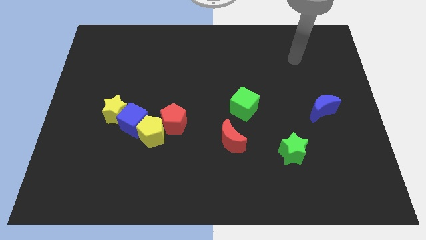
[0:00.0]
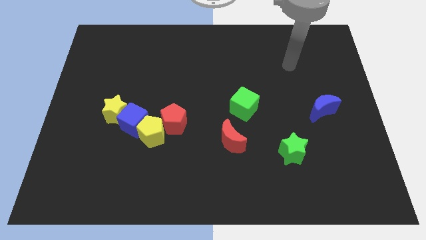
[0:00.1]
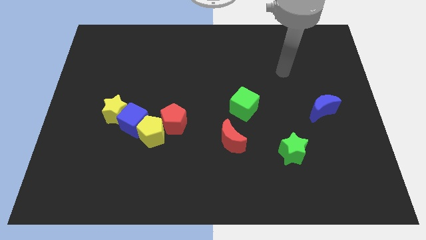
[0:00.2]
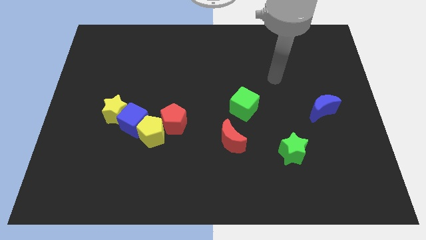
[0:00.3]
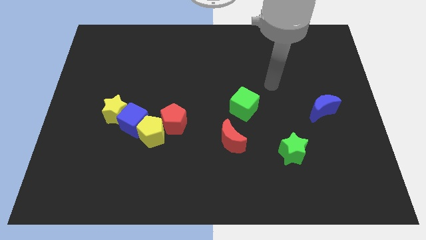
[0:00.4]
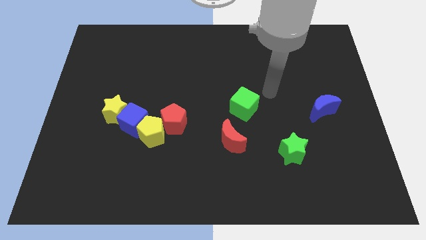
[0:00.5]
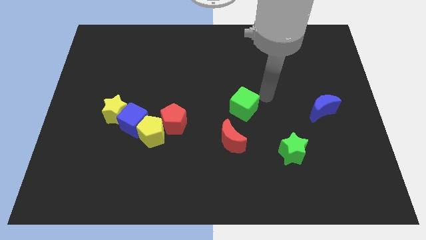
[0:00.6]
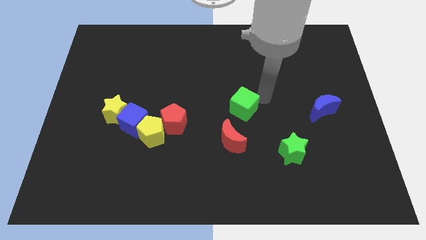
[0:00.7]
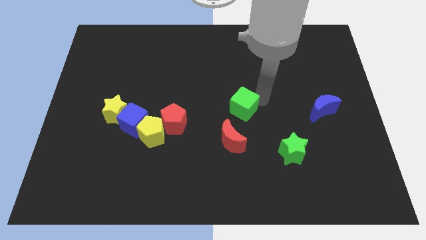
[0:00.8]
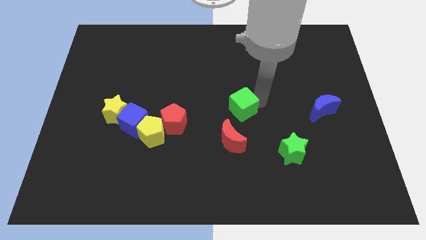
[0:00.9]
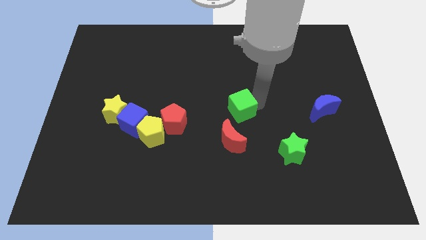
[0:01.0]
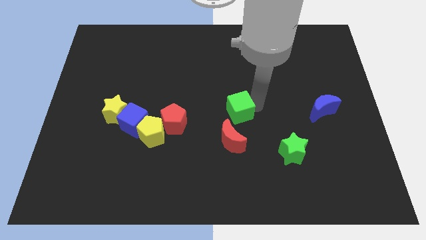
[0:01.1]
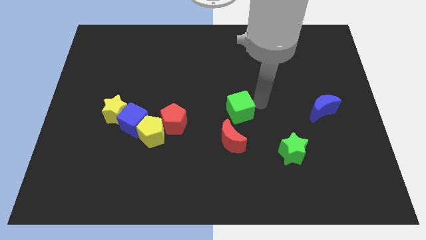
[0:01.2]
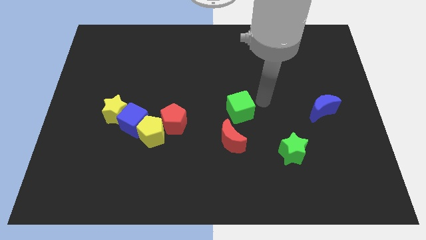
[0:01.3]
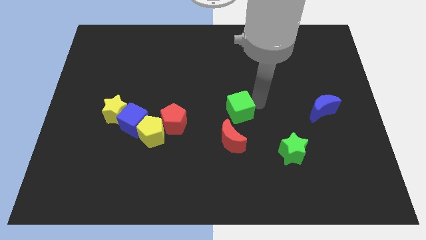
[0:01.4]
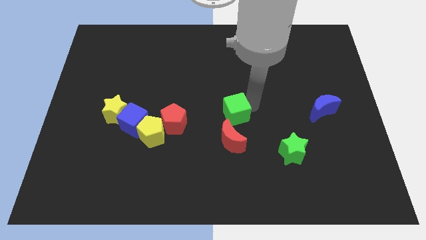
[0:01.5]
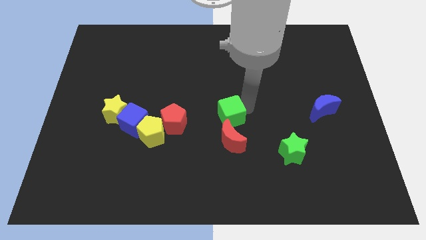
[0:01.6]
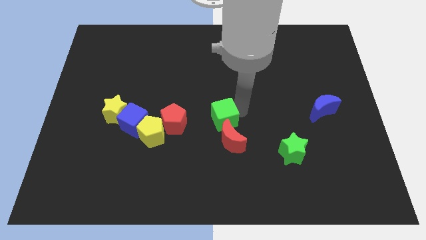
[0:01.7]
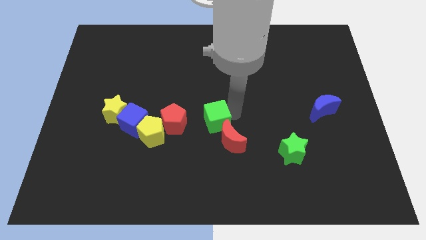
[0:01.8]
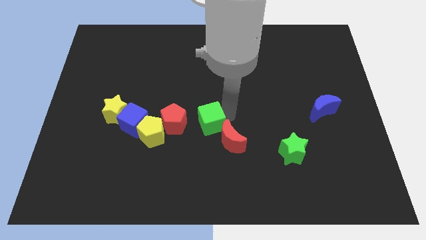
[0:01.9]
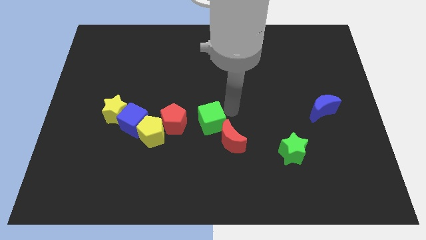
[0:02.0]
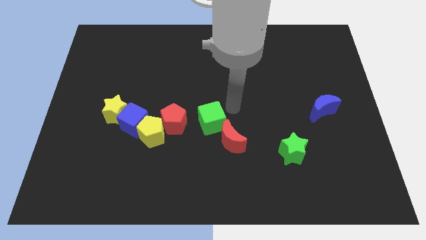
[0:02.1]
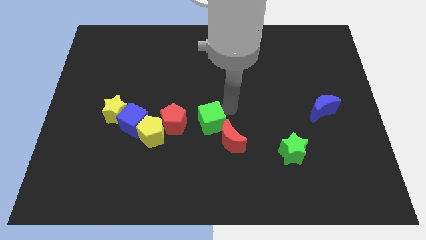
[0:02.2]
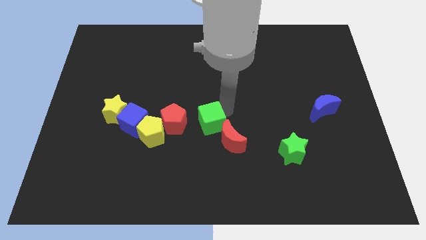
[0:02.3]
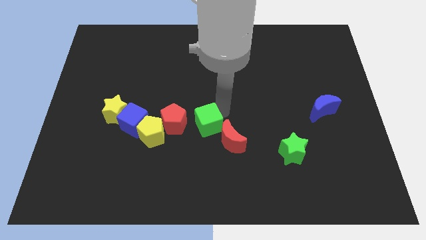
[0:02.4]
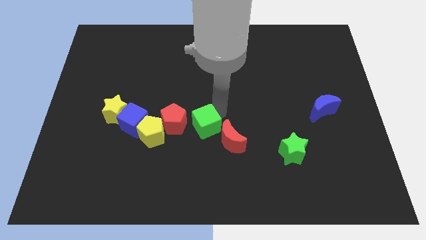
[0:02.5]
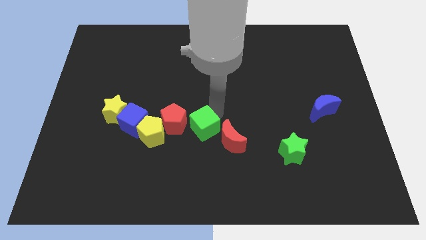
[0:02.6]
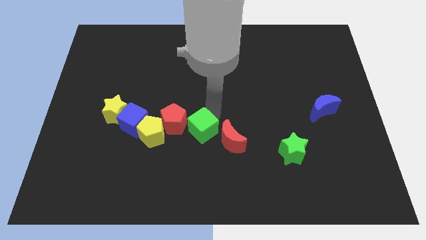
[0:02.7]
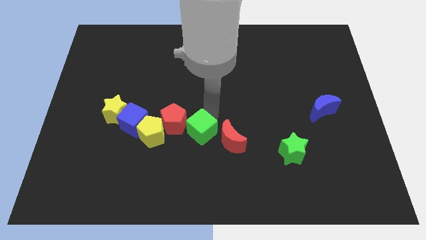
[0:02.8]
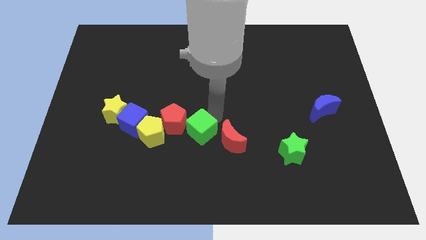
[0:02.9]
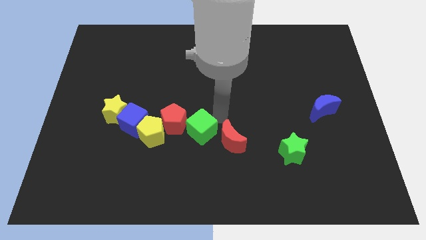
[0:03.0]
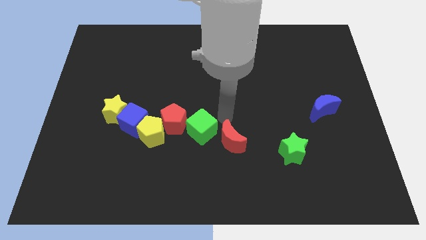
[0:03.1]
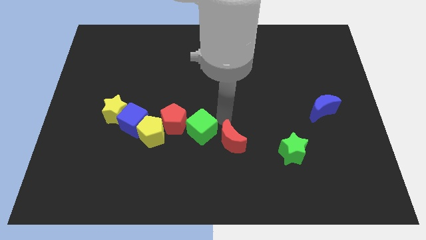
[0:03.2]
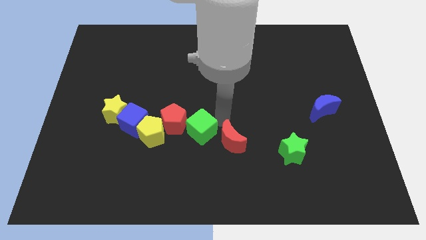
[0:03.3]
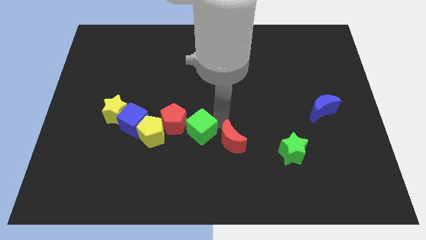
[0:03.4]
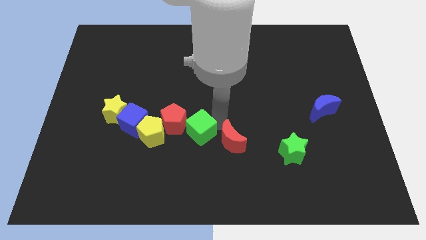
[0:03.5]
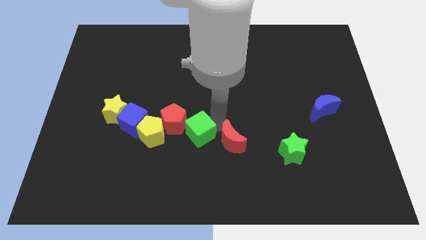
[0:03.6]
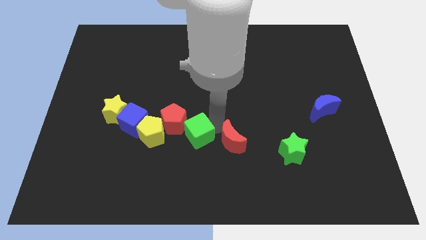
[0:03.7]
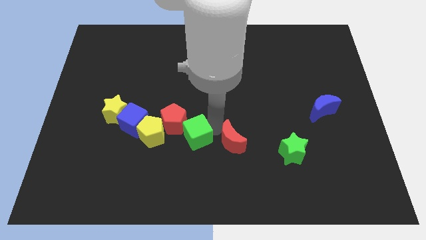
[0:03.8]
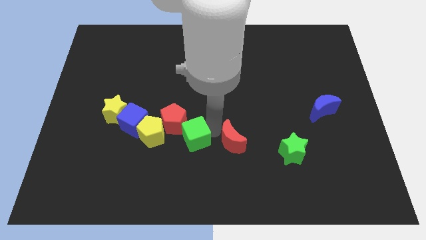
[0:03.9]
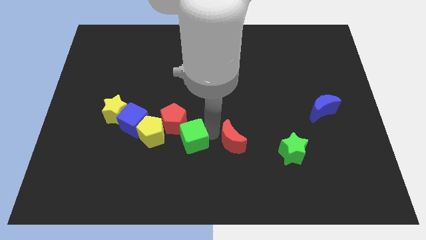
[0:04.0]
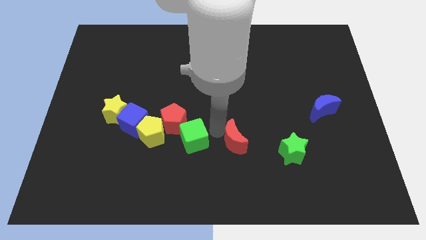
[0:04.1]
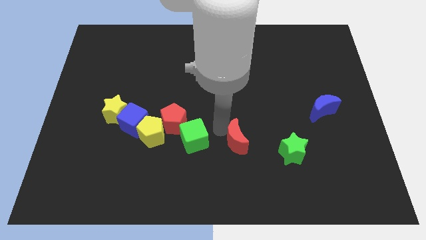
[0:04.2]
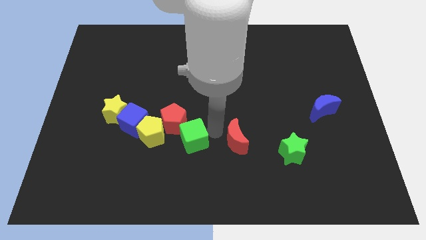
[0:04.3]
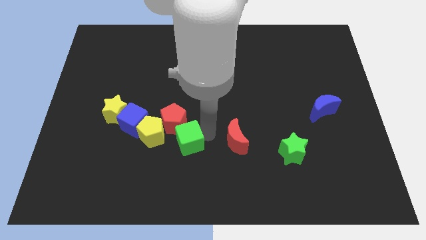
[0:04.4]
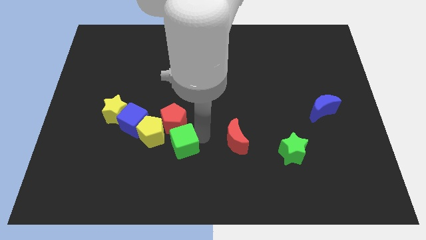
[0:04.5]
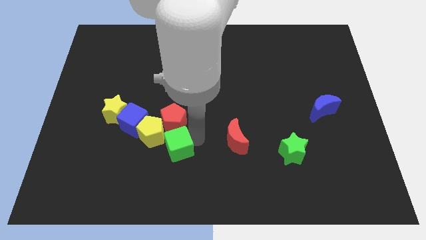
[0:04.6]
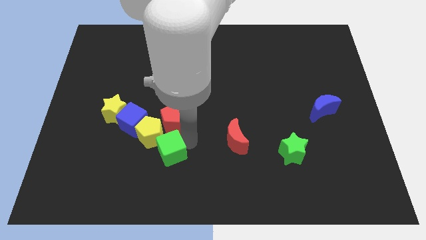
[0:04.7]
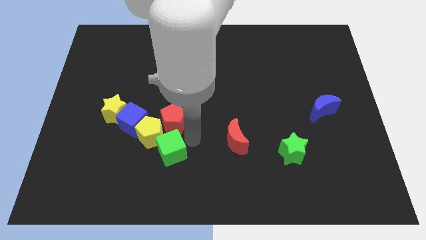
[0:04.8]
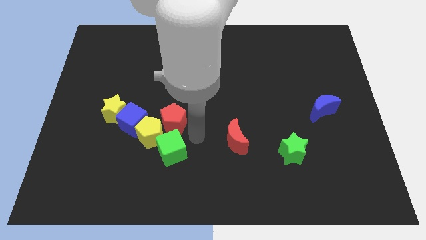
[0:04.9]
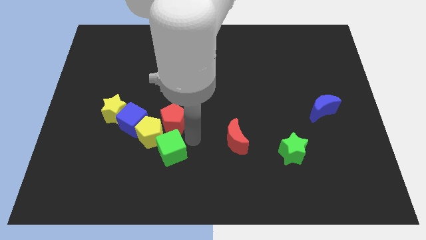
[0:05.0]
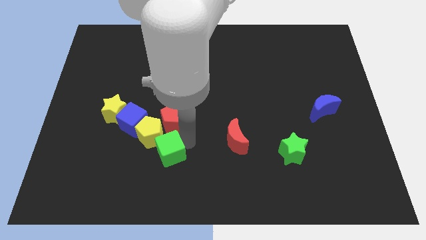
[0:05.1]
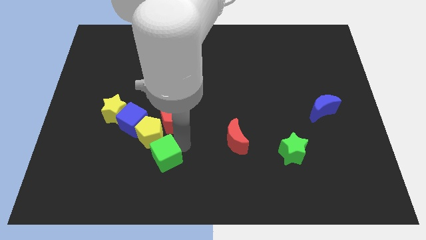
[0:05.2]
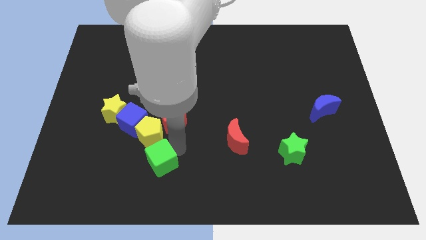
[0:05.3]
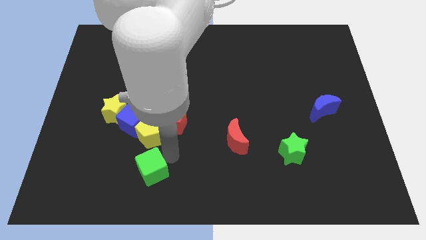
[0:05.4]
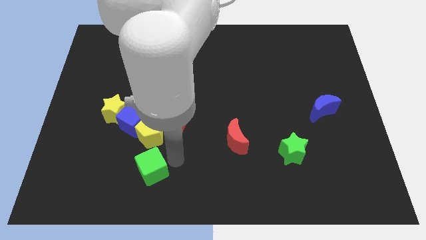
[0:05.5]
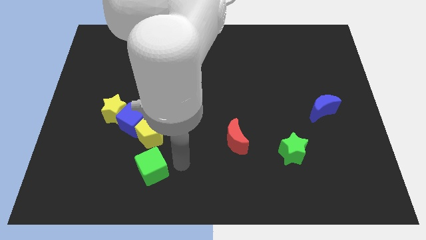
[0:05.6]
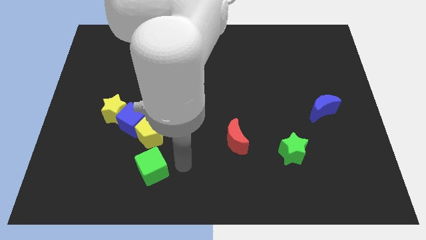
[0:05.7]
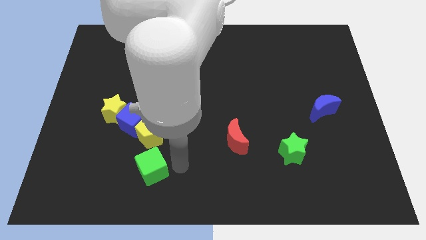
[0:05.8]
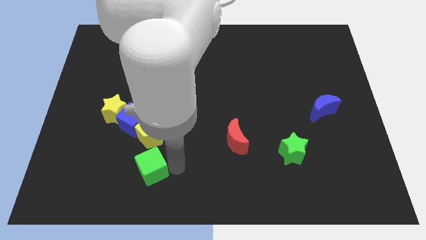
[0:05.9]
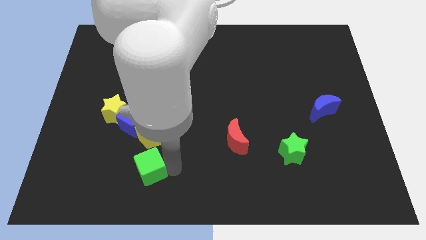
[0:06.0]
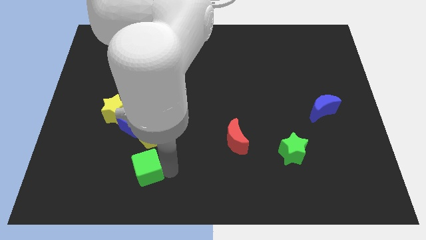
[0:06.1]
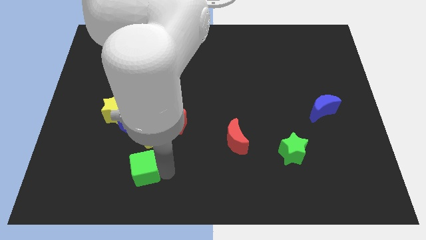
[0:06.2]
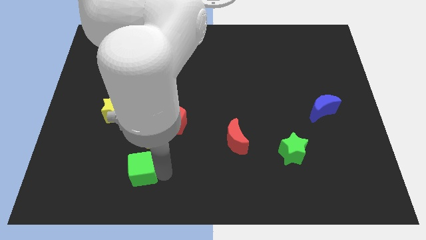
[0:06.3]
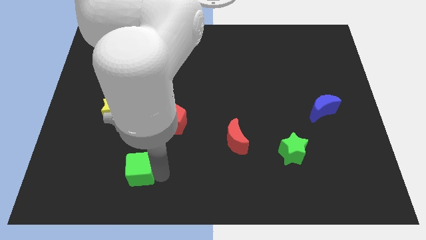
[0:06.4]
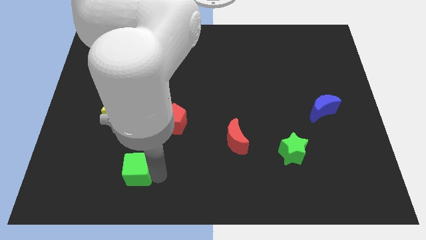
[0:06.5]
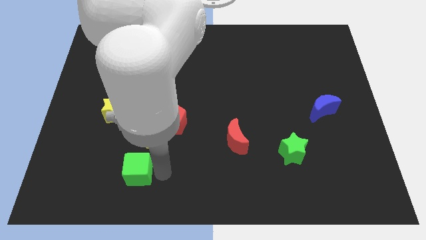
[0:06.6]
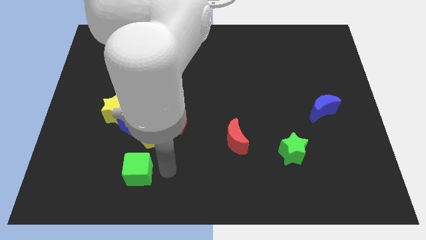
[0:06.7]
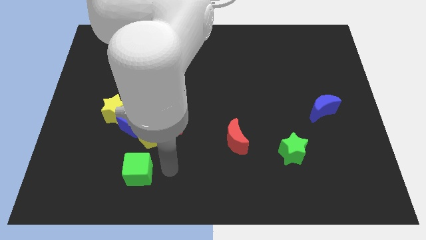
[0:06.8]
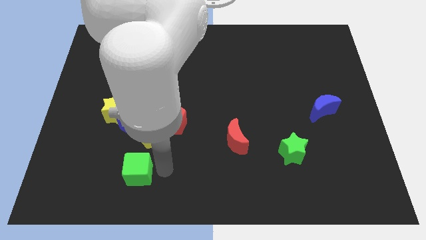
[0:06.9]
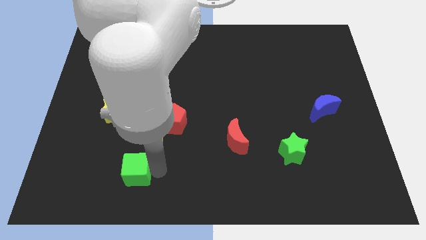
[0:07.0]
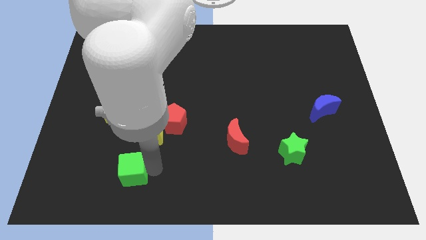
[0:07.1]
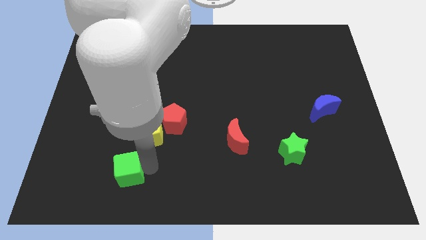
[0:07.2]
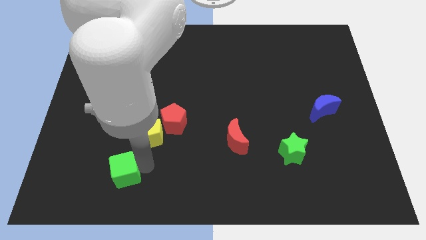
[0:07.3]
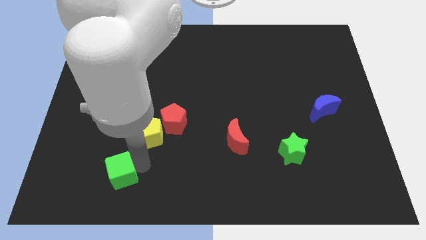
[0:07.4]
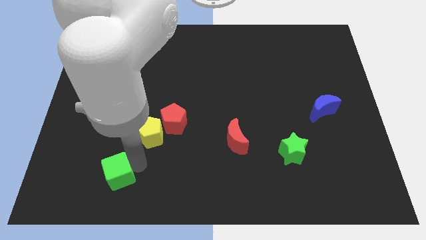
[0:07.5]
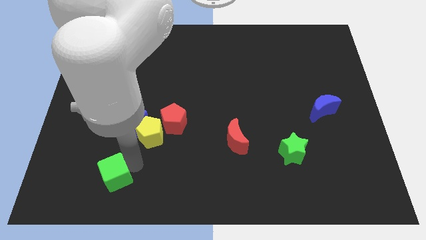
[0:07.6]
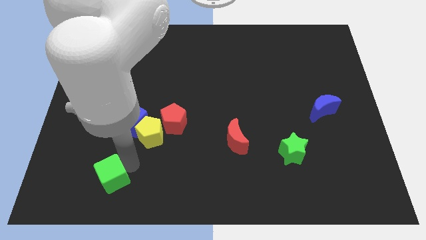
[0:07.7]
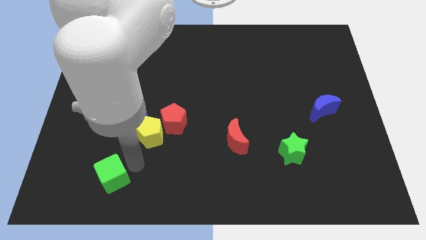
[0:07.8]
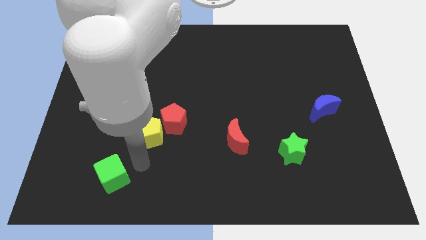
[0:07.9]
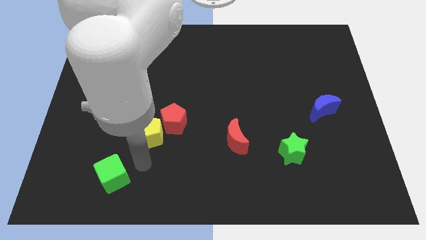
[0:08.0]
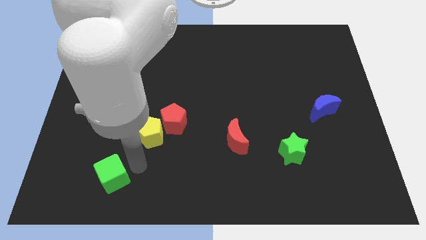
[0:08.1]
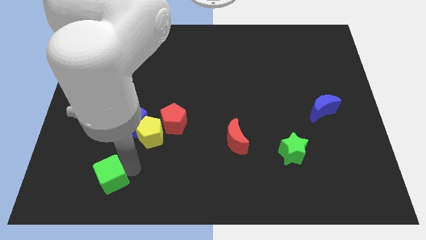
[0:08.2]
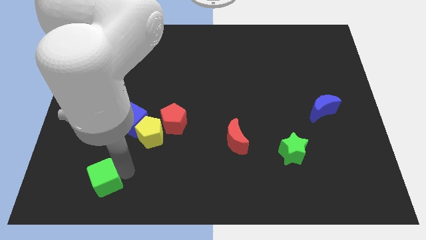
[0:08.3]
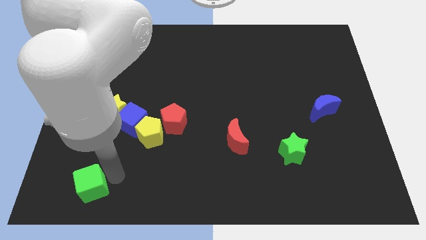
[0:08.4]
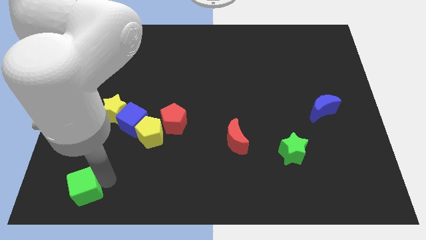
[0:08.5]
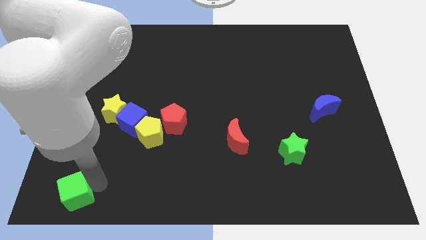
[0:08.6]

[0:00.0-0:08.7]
move the green cube to the bottom left corner
